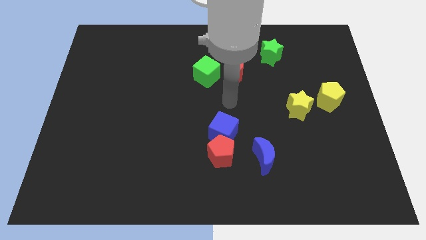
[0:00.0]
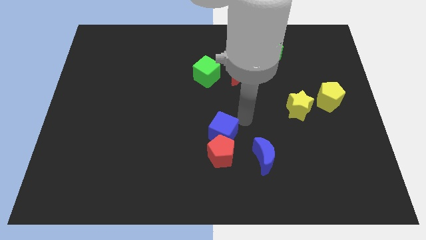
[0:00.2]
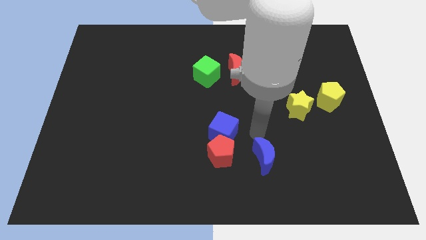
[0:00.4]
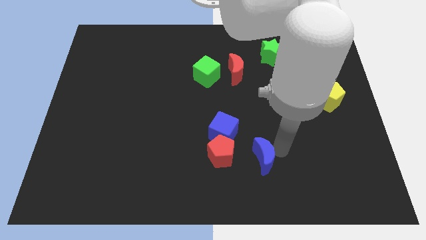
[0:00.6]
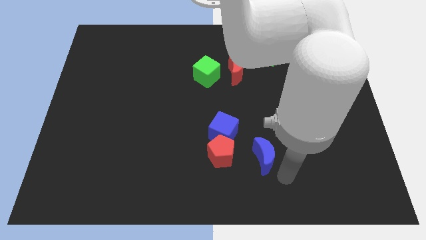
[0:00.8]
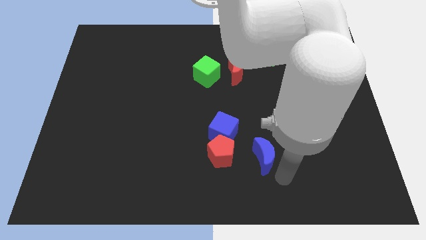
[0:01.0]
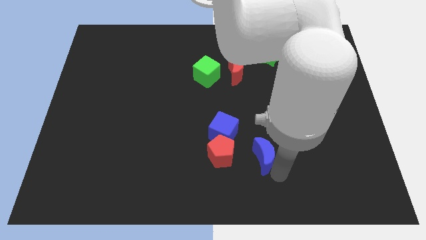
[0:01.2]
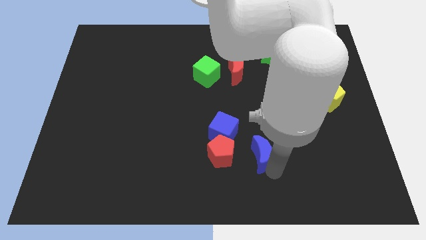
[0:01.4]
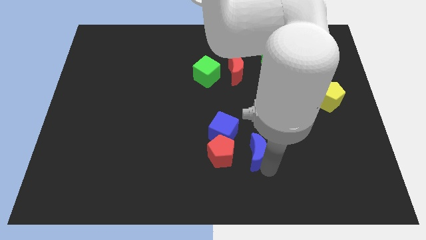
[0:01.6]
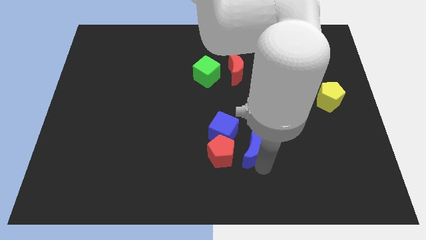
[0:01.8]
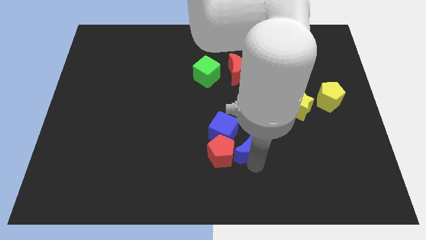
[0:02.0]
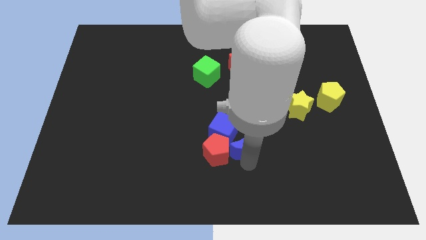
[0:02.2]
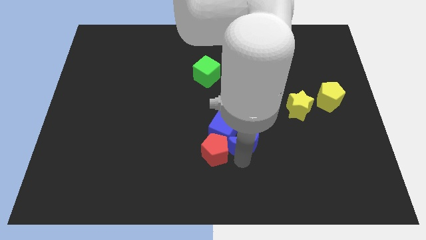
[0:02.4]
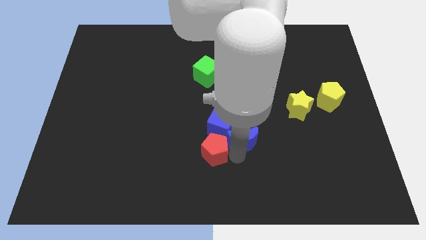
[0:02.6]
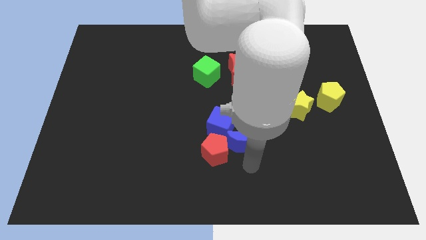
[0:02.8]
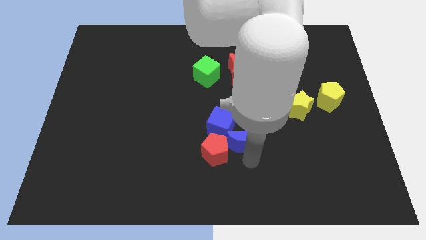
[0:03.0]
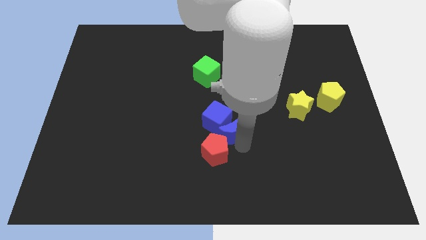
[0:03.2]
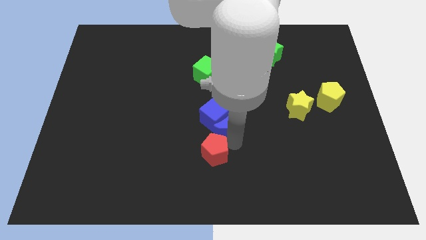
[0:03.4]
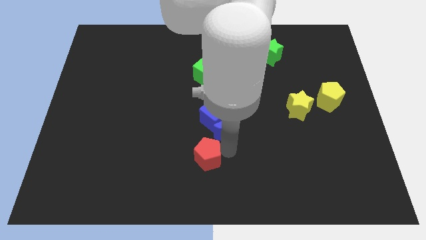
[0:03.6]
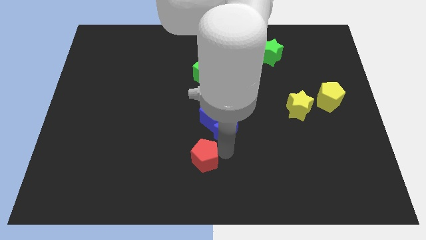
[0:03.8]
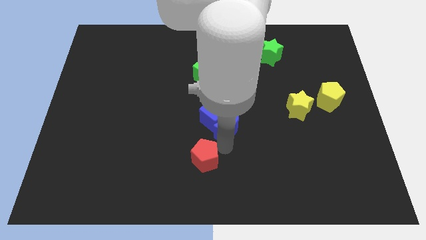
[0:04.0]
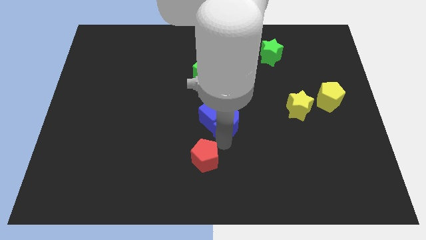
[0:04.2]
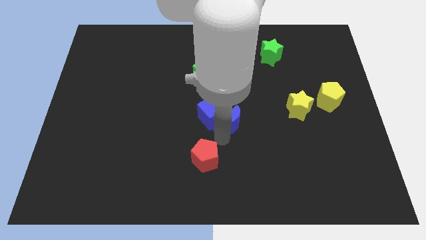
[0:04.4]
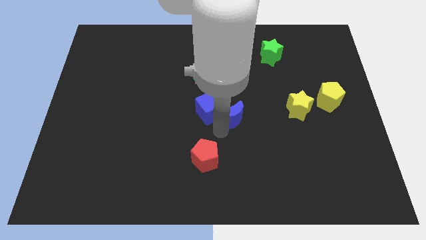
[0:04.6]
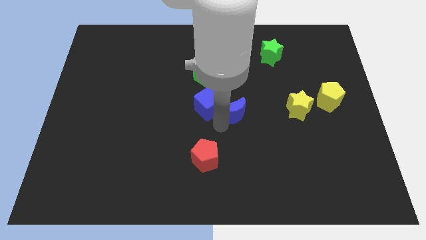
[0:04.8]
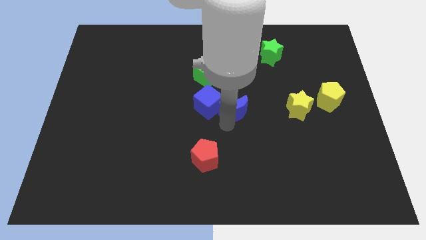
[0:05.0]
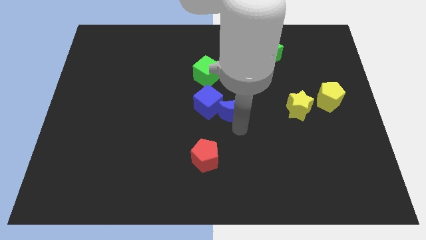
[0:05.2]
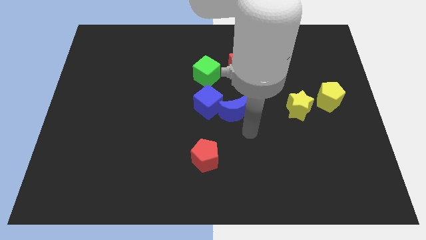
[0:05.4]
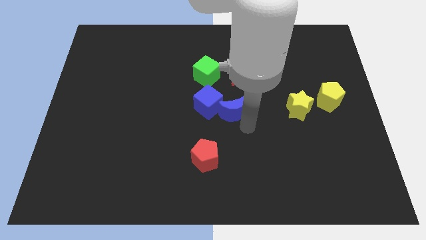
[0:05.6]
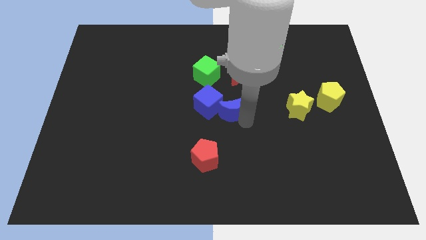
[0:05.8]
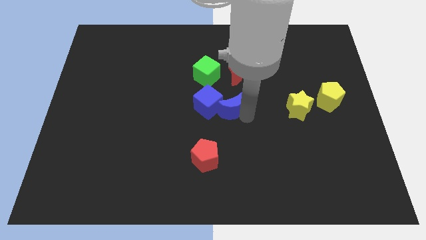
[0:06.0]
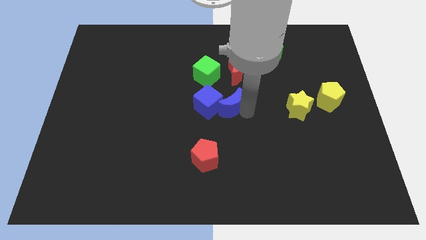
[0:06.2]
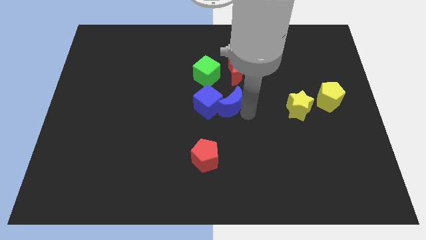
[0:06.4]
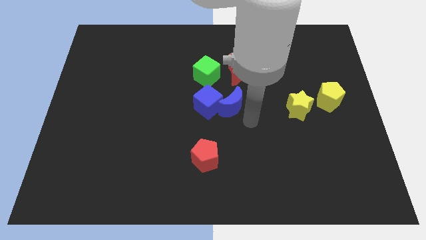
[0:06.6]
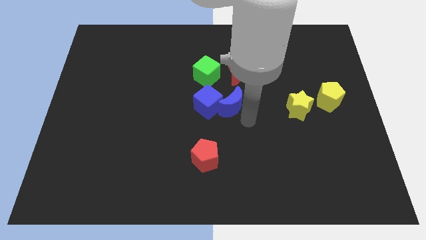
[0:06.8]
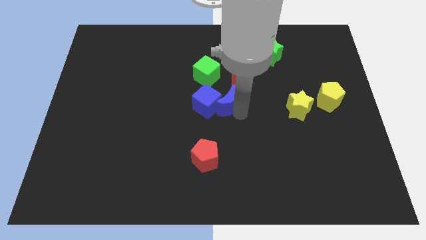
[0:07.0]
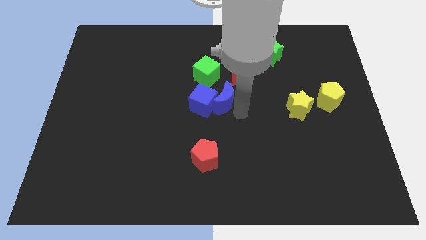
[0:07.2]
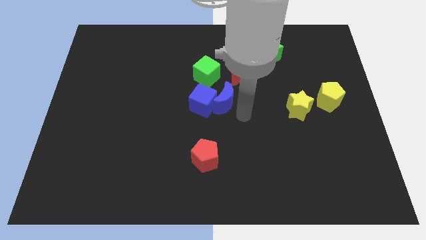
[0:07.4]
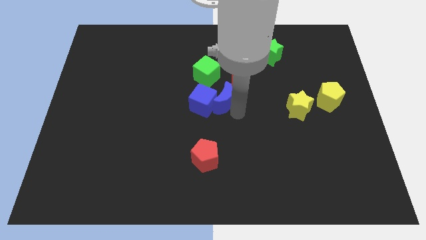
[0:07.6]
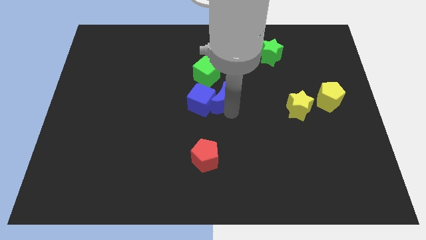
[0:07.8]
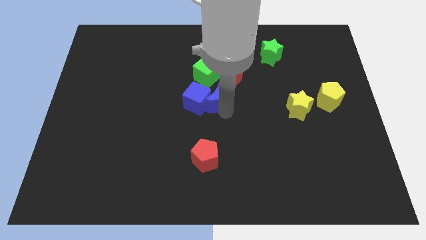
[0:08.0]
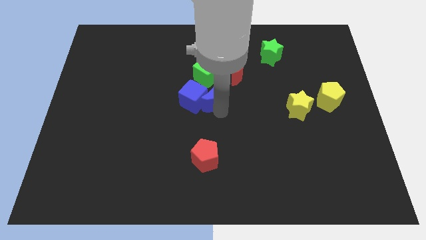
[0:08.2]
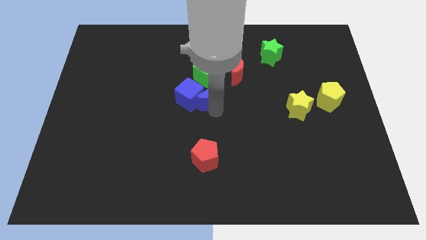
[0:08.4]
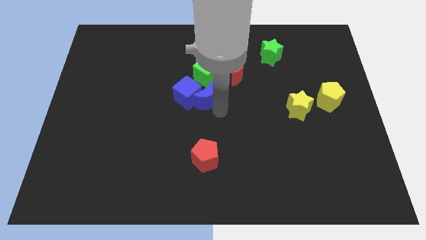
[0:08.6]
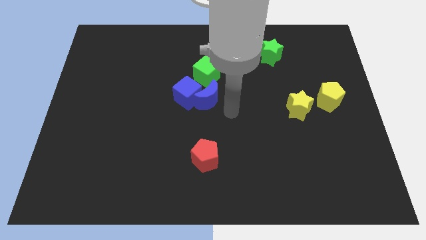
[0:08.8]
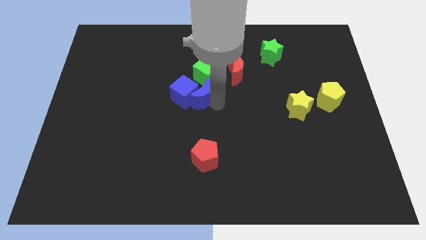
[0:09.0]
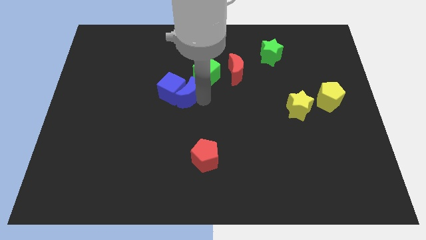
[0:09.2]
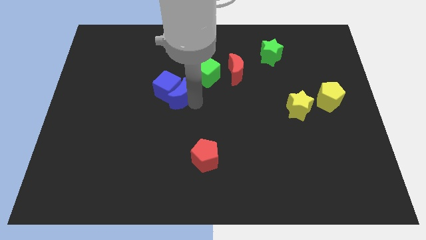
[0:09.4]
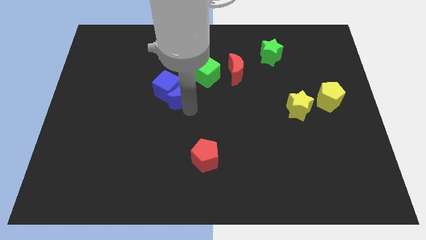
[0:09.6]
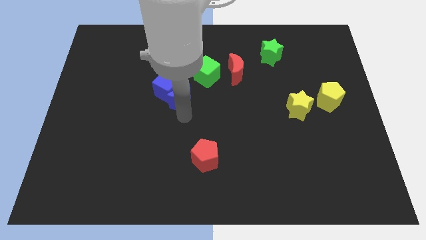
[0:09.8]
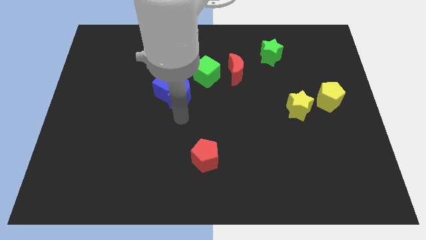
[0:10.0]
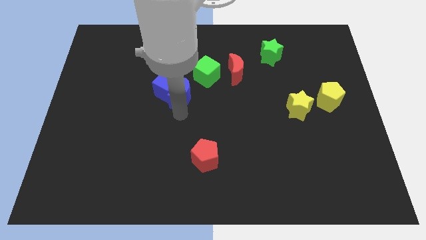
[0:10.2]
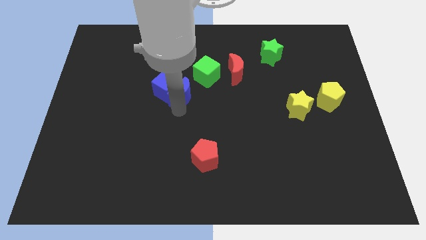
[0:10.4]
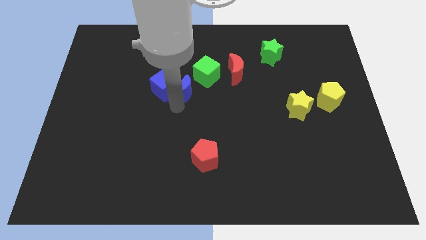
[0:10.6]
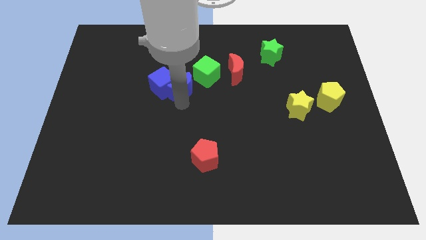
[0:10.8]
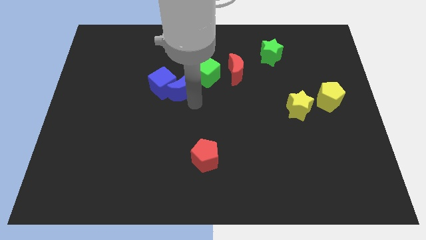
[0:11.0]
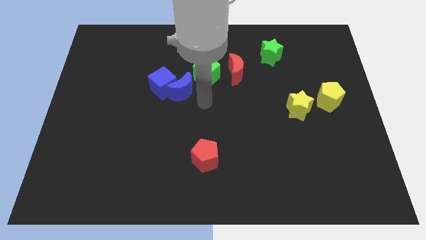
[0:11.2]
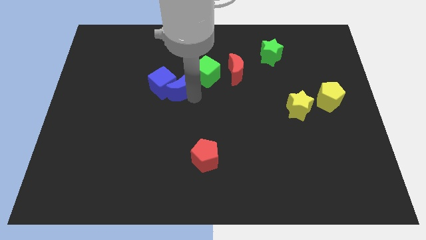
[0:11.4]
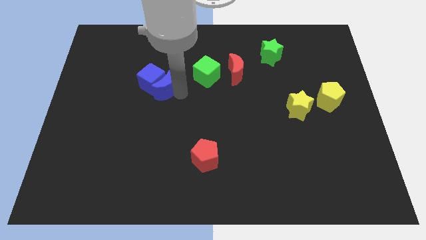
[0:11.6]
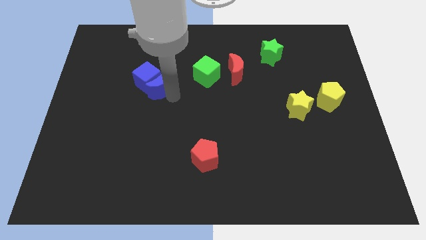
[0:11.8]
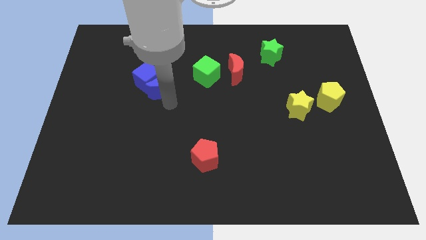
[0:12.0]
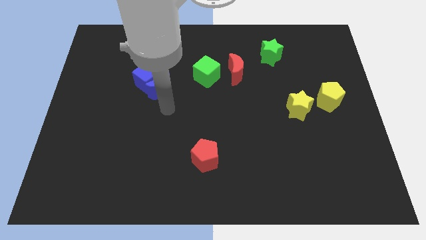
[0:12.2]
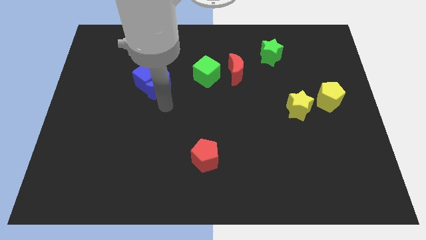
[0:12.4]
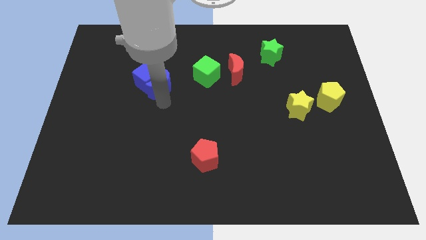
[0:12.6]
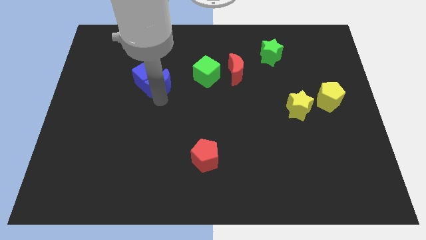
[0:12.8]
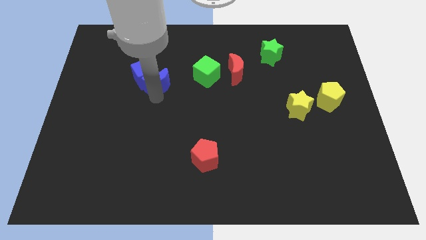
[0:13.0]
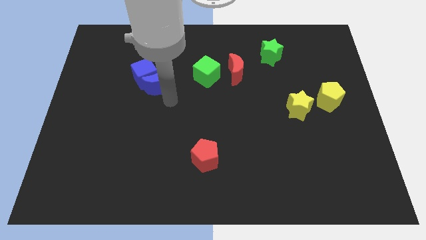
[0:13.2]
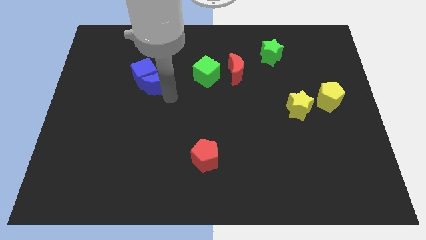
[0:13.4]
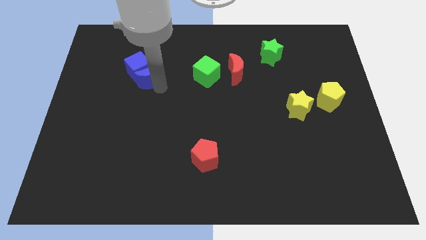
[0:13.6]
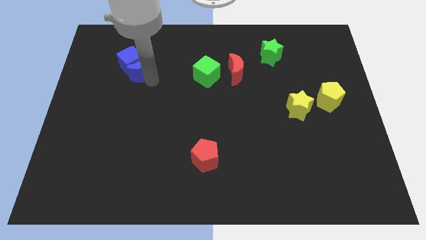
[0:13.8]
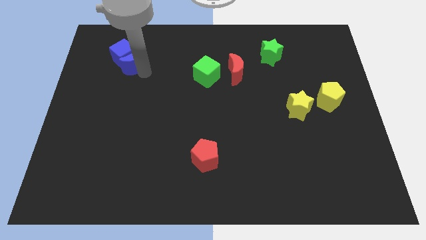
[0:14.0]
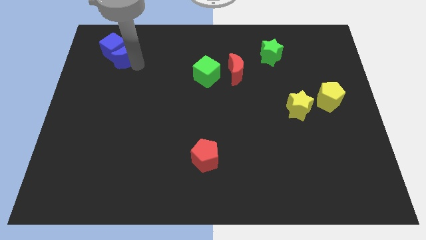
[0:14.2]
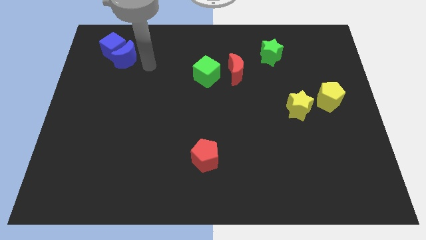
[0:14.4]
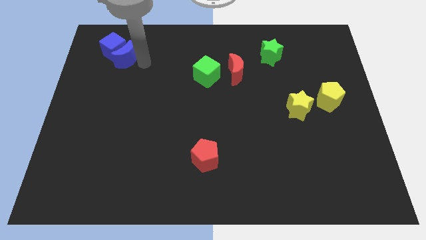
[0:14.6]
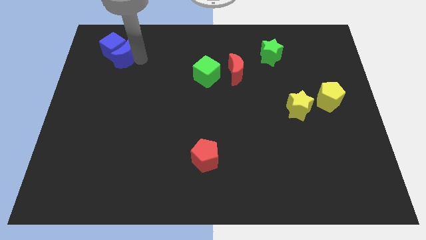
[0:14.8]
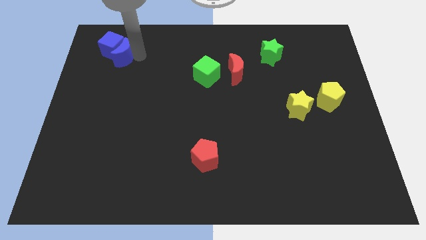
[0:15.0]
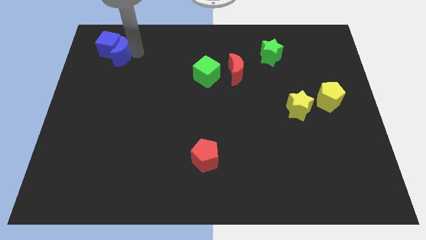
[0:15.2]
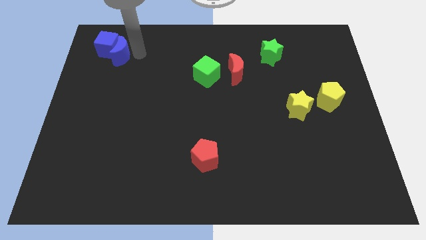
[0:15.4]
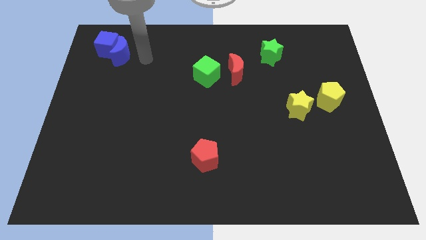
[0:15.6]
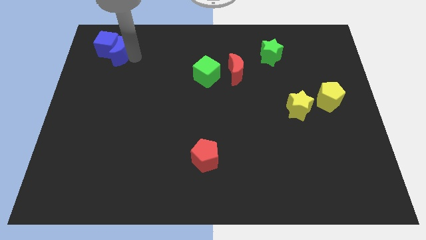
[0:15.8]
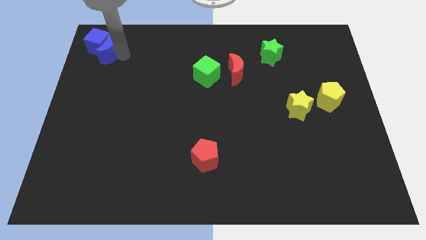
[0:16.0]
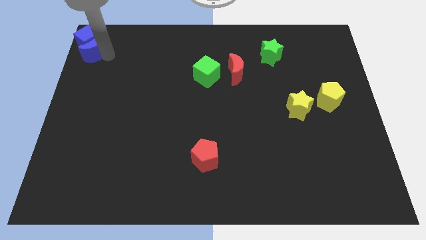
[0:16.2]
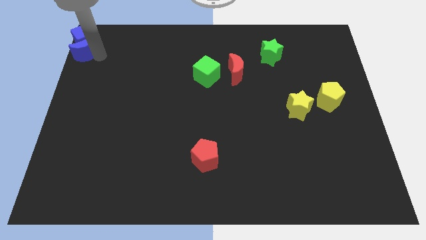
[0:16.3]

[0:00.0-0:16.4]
slide the blue moon to the upper left corner
